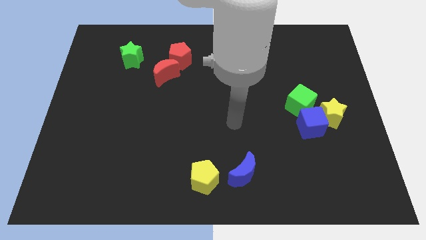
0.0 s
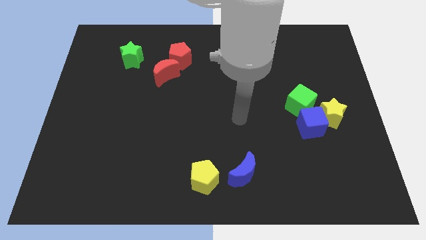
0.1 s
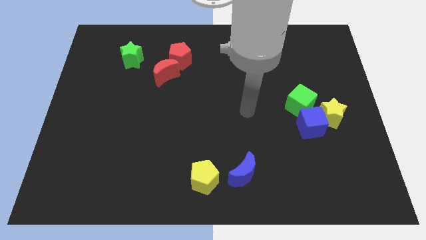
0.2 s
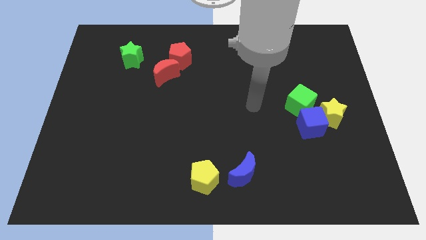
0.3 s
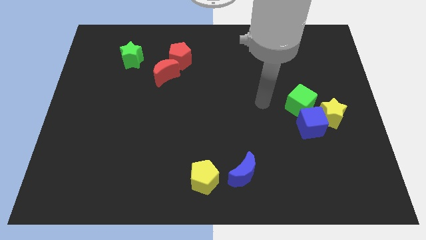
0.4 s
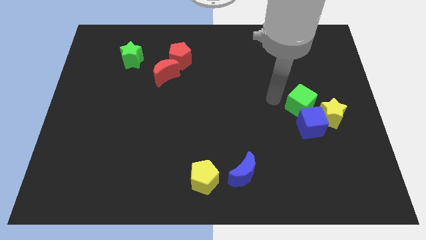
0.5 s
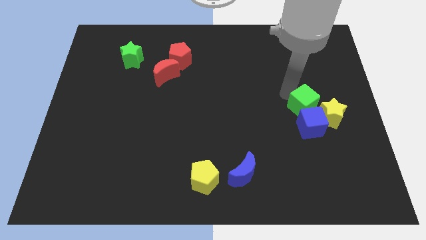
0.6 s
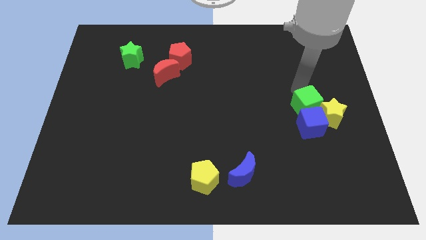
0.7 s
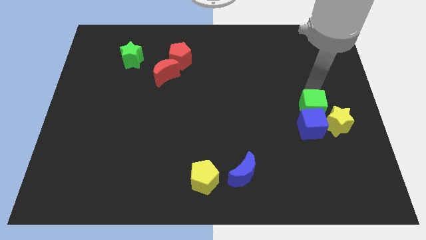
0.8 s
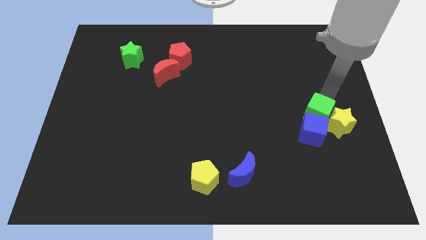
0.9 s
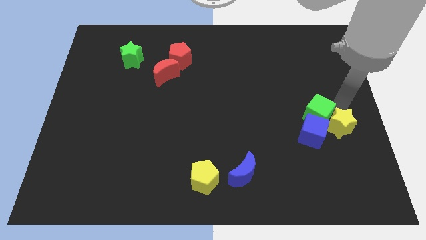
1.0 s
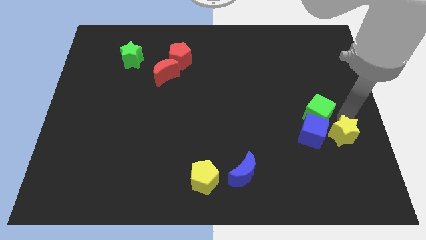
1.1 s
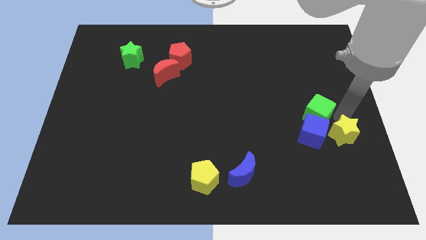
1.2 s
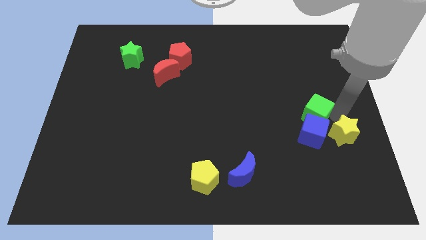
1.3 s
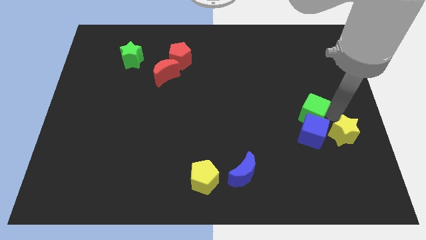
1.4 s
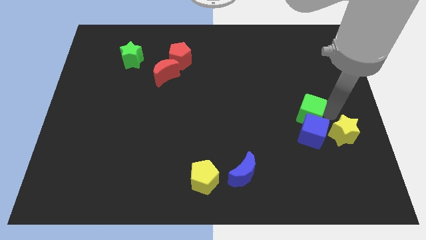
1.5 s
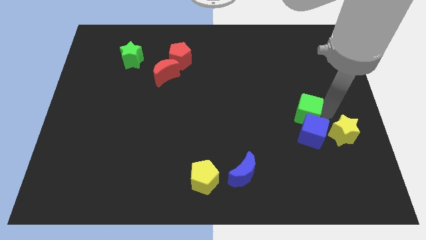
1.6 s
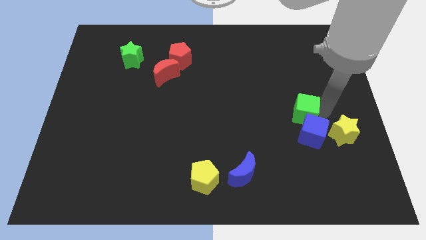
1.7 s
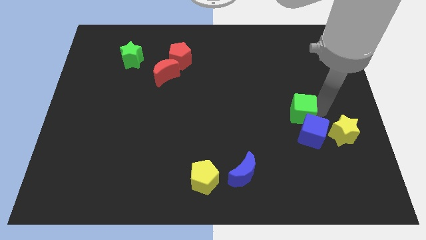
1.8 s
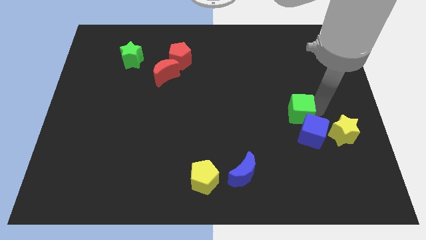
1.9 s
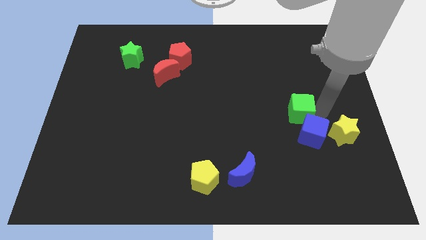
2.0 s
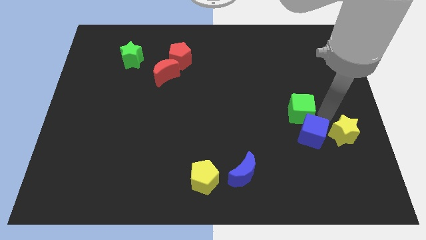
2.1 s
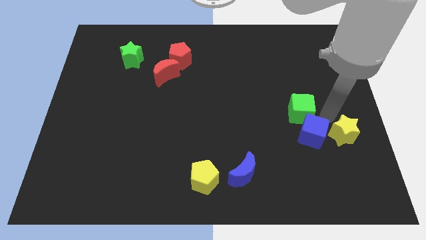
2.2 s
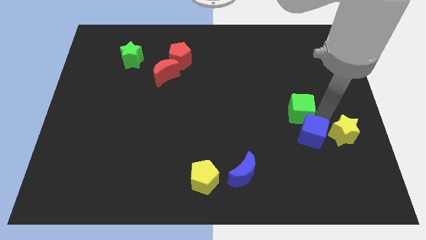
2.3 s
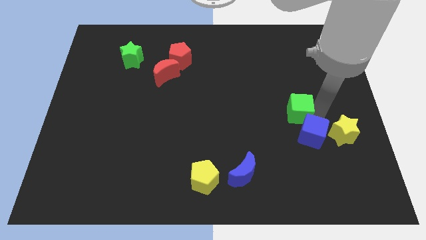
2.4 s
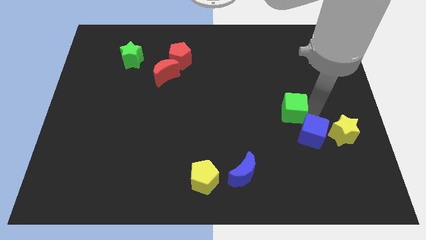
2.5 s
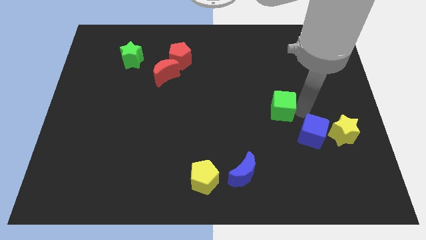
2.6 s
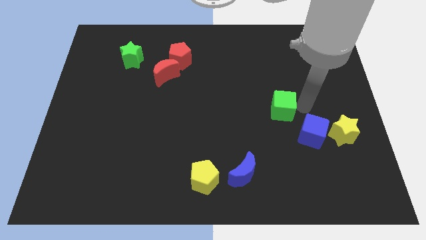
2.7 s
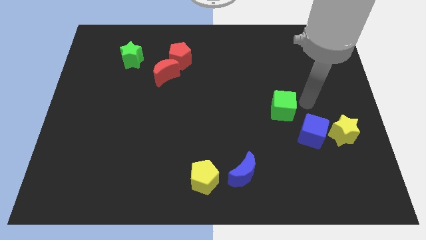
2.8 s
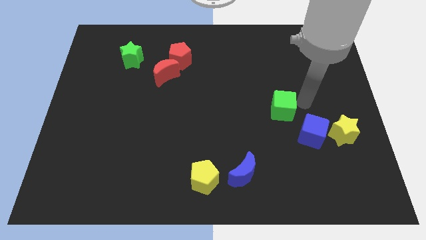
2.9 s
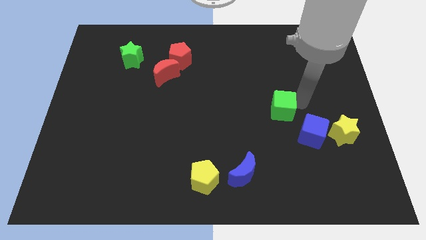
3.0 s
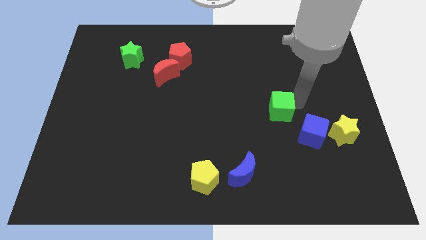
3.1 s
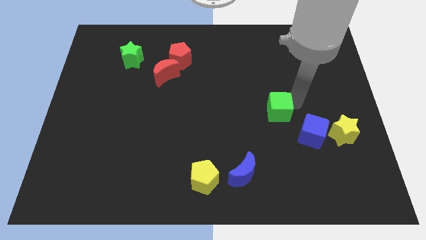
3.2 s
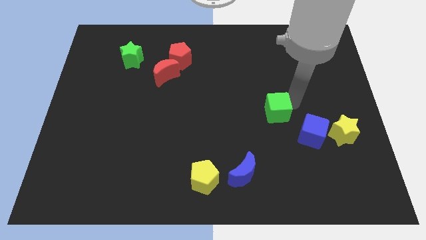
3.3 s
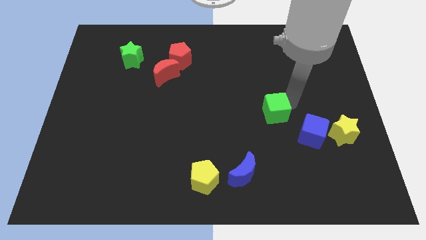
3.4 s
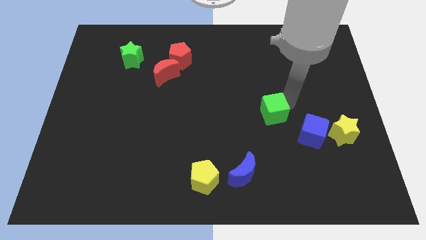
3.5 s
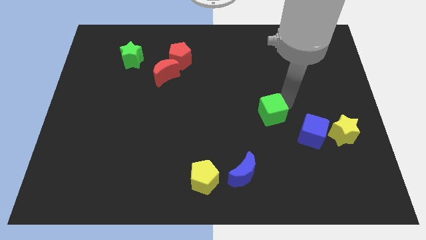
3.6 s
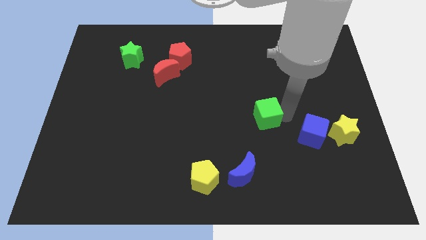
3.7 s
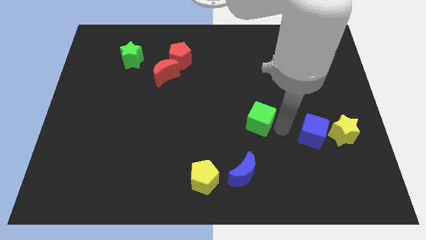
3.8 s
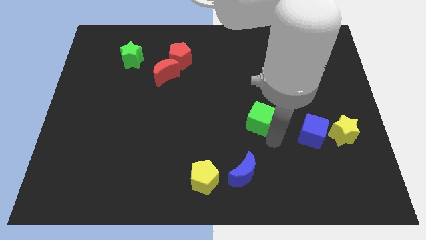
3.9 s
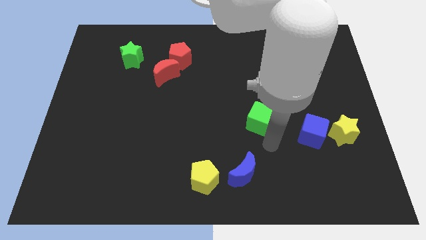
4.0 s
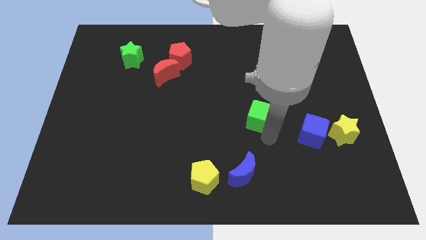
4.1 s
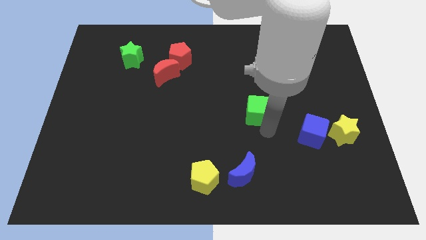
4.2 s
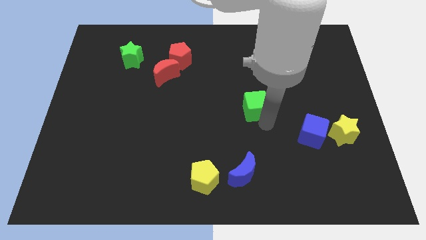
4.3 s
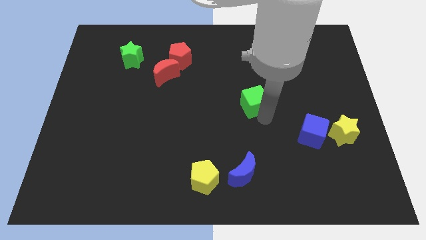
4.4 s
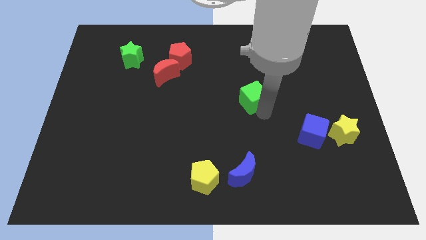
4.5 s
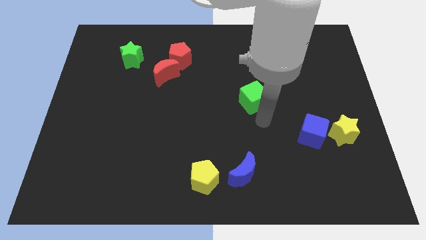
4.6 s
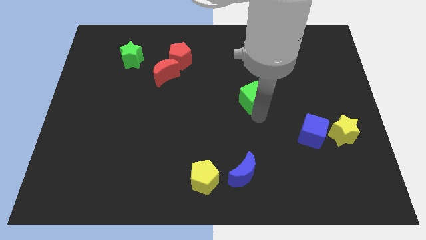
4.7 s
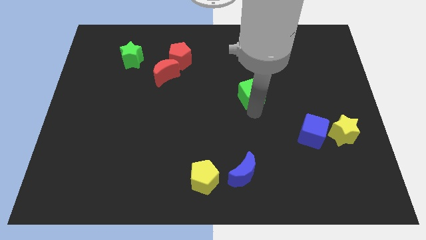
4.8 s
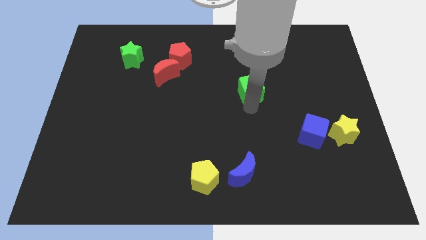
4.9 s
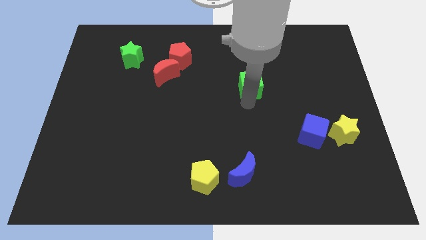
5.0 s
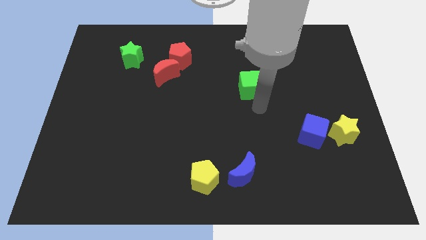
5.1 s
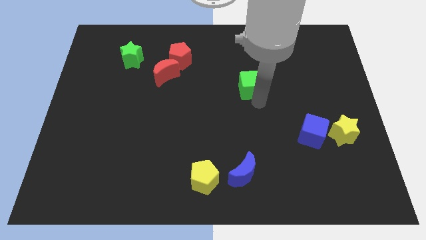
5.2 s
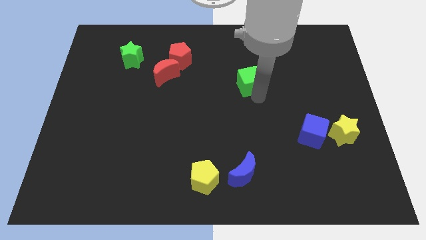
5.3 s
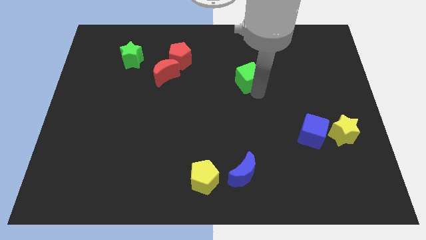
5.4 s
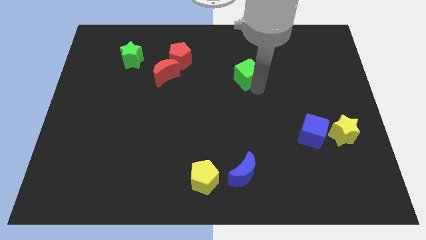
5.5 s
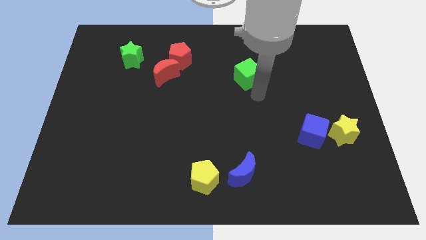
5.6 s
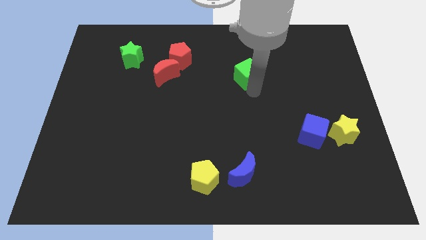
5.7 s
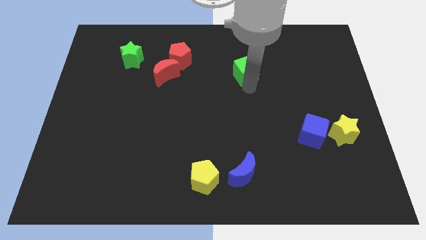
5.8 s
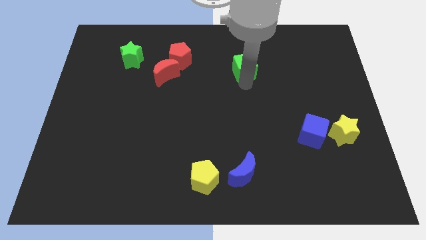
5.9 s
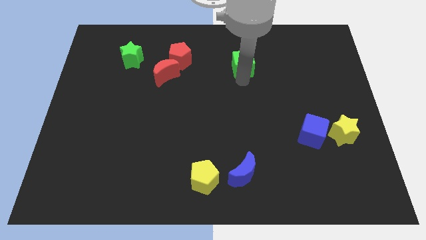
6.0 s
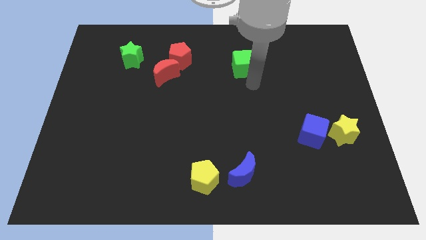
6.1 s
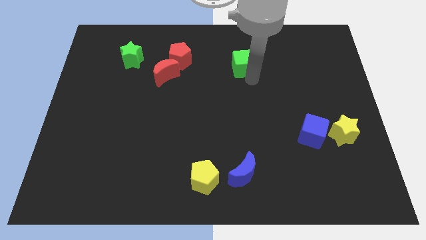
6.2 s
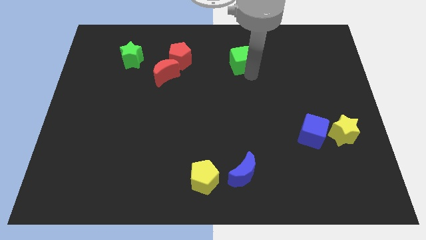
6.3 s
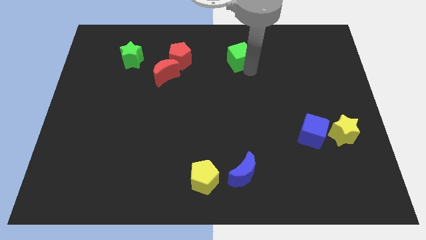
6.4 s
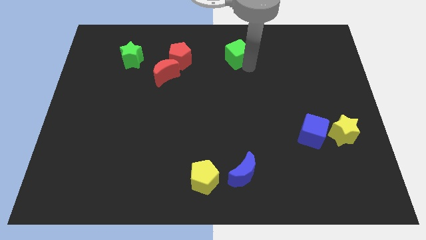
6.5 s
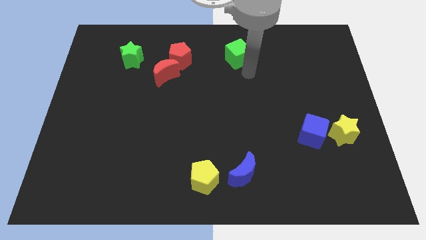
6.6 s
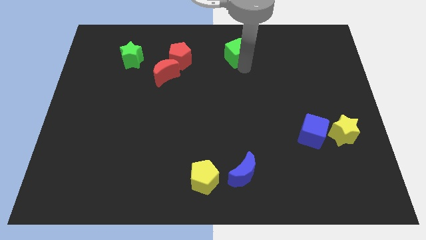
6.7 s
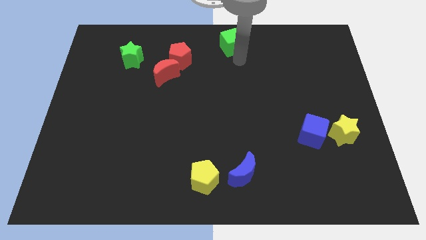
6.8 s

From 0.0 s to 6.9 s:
move the green cube to the towards your base

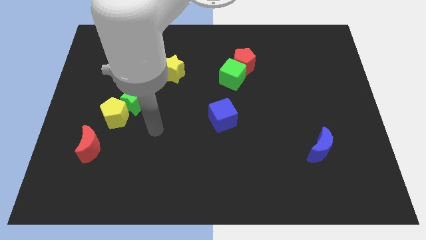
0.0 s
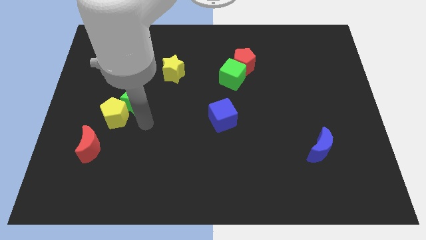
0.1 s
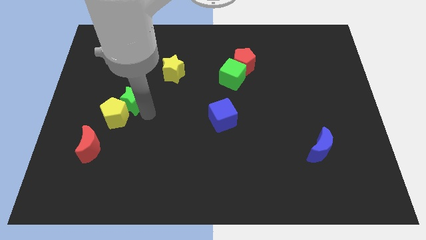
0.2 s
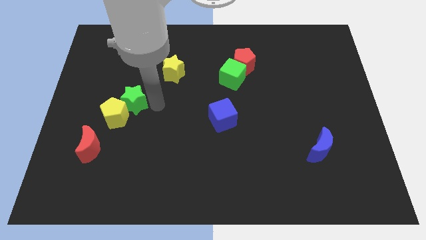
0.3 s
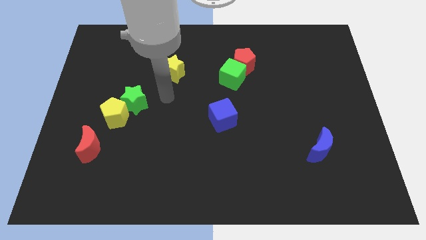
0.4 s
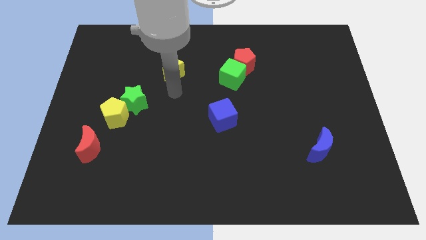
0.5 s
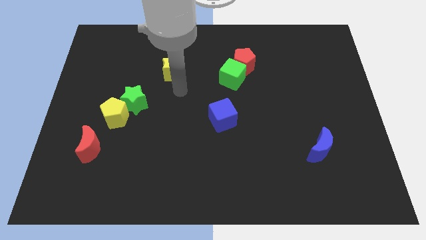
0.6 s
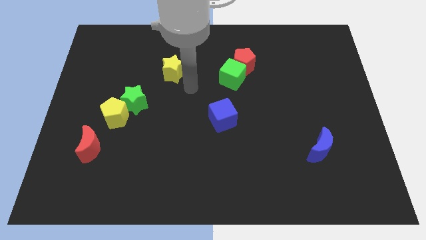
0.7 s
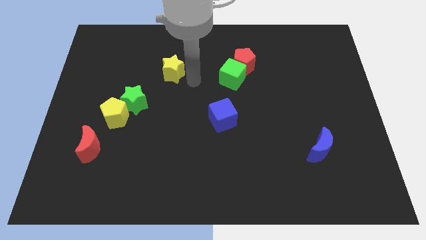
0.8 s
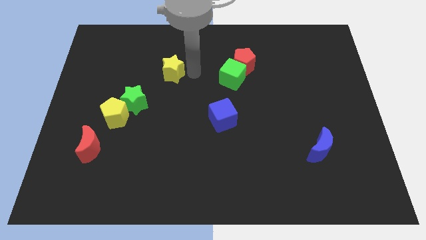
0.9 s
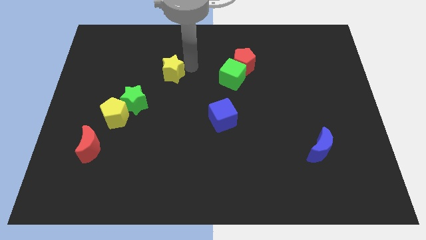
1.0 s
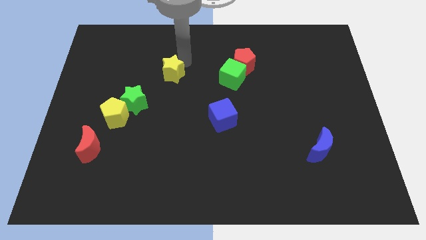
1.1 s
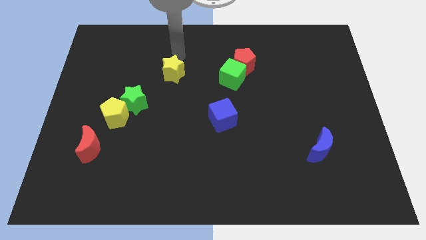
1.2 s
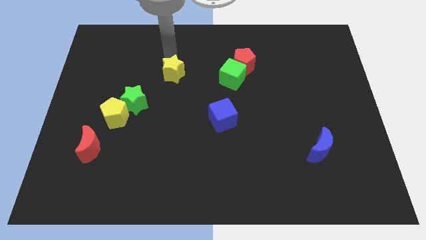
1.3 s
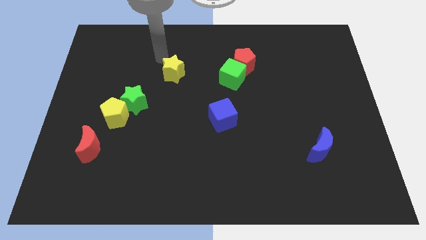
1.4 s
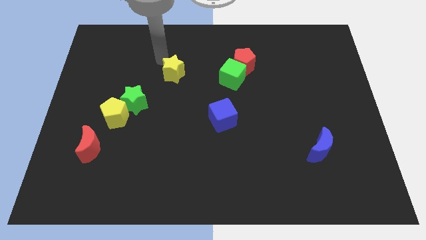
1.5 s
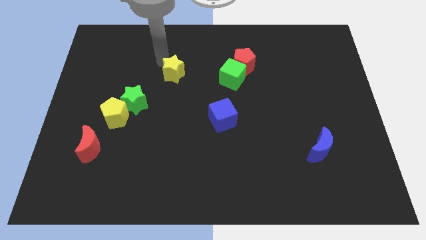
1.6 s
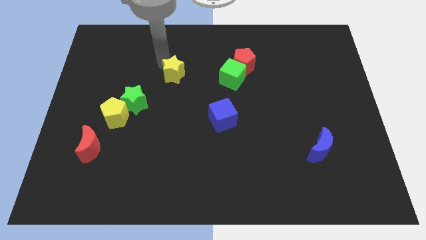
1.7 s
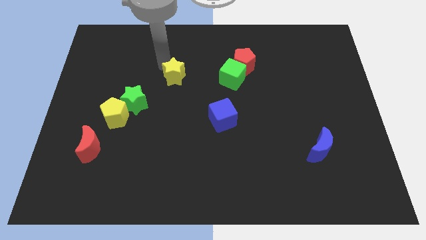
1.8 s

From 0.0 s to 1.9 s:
push the yellow star to the center of the board
